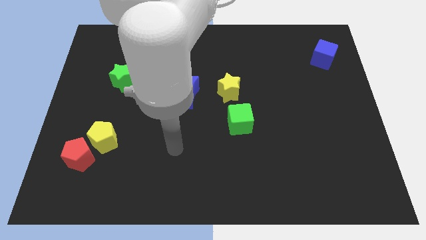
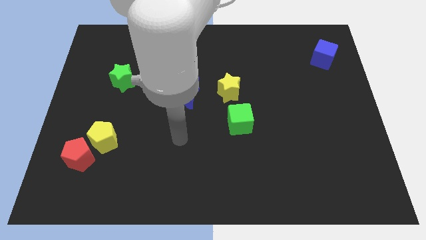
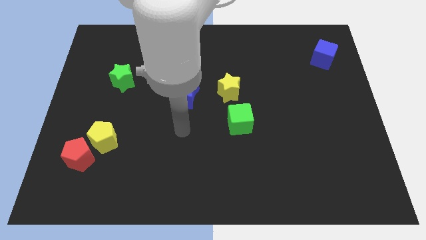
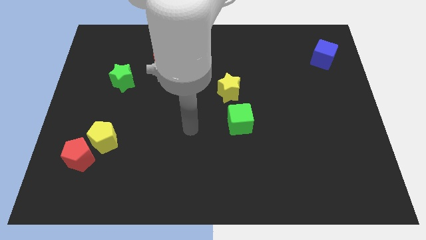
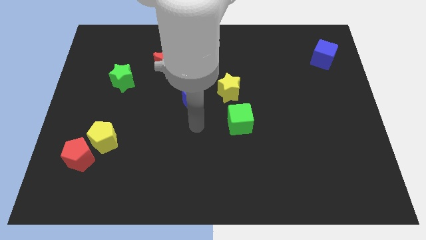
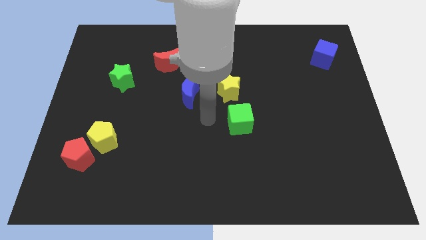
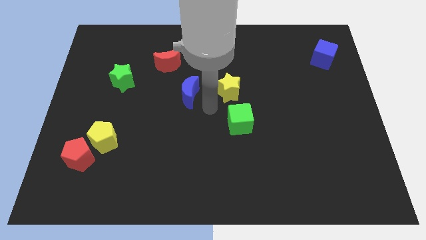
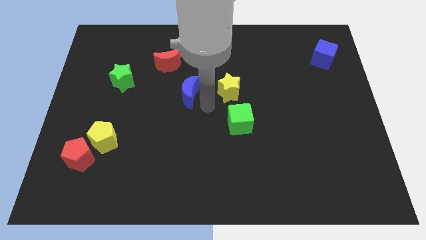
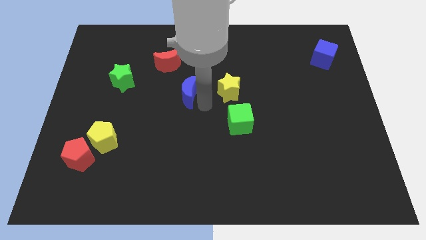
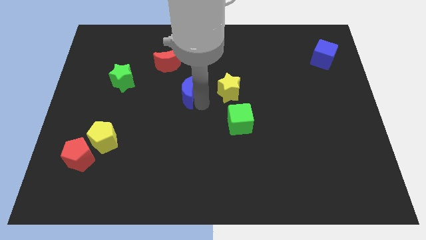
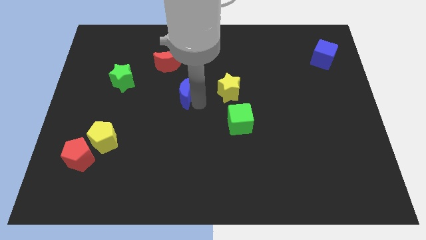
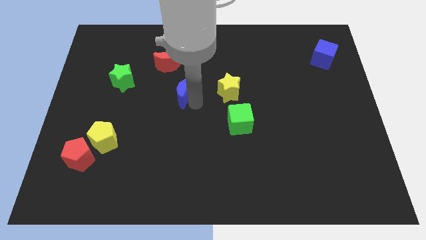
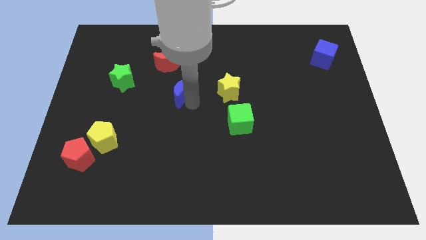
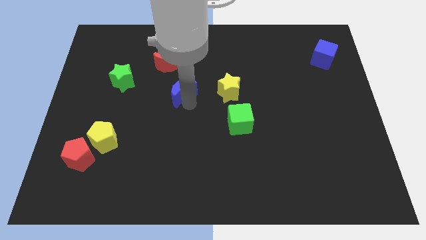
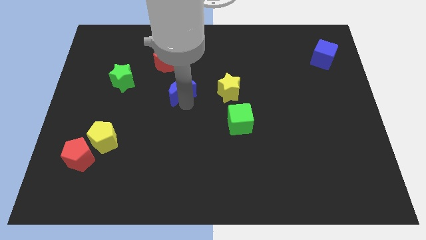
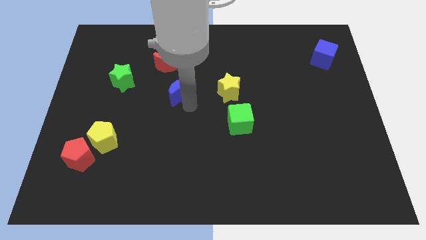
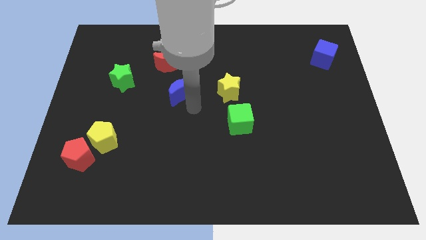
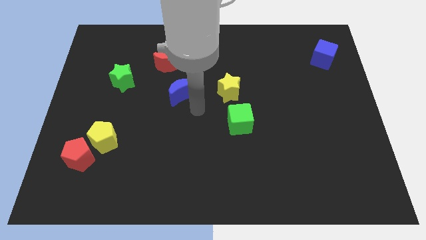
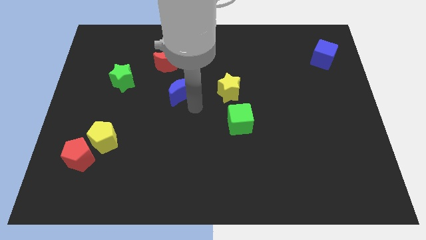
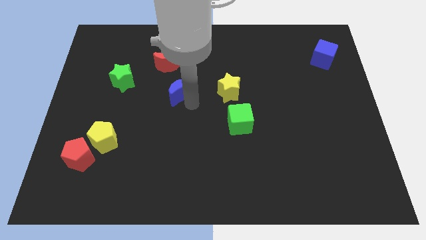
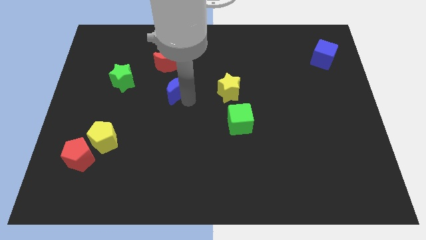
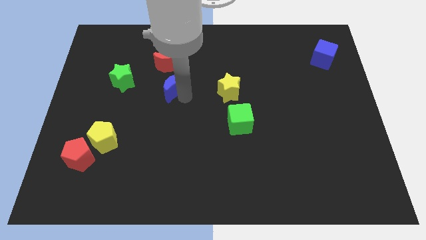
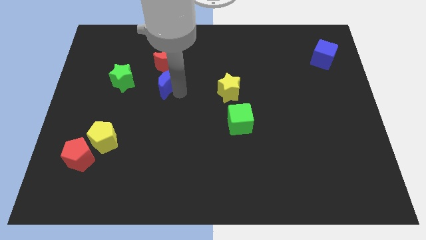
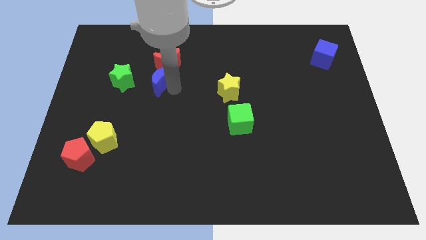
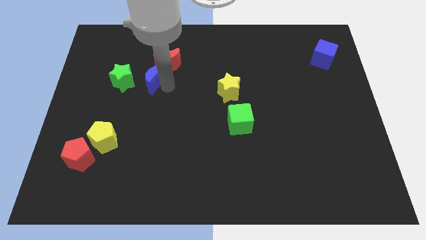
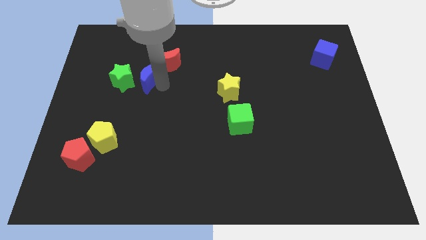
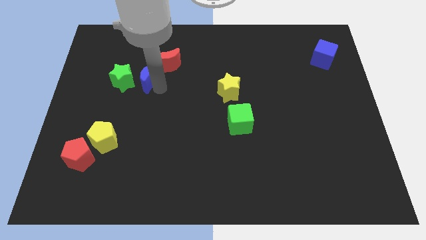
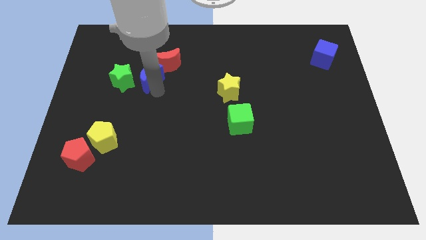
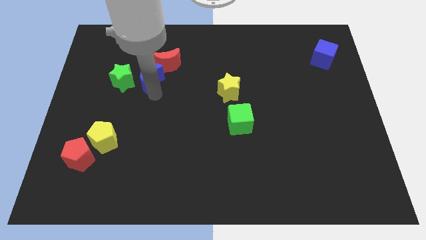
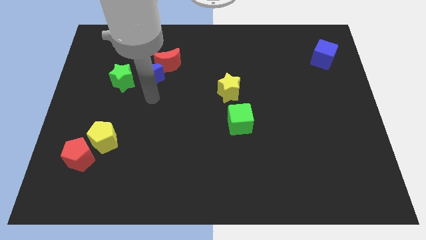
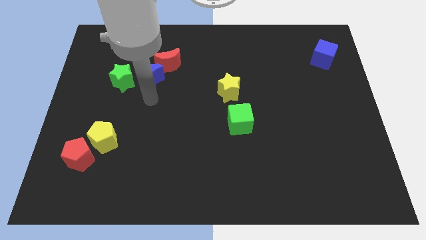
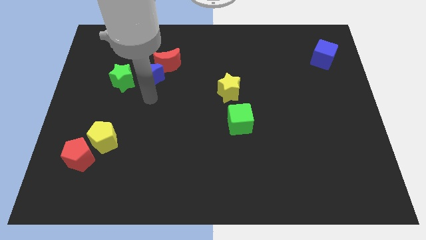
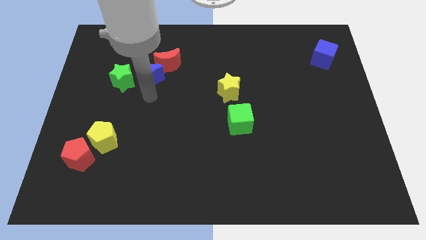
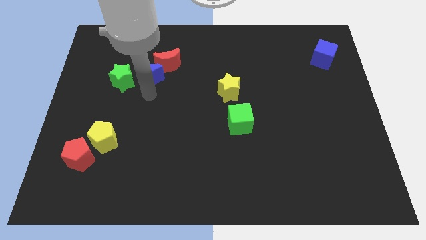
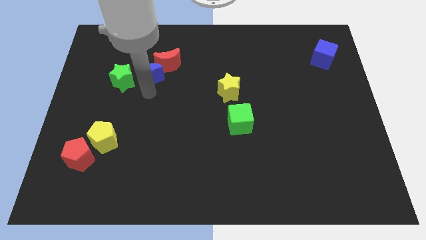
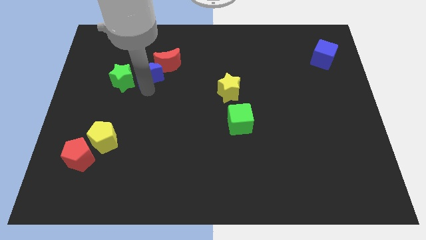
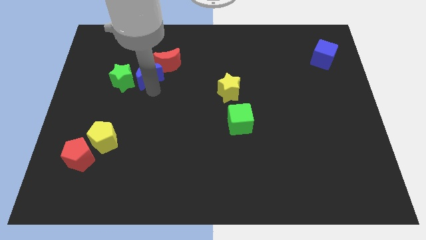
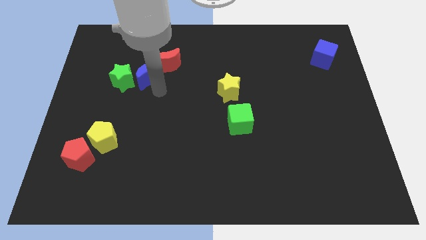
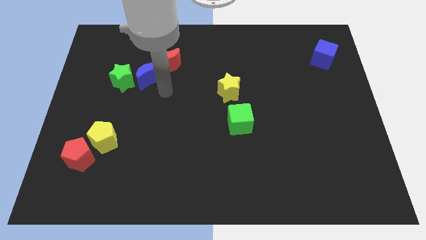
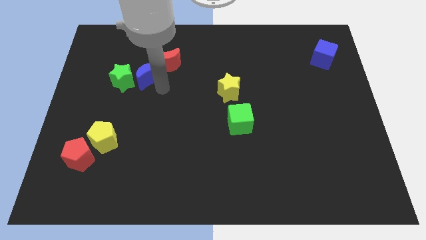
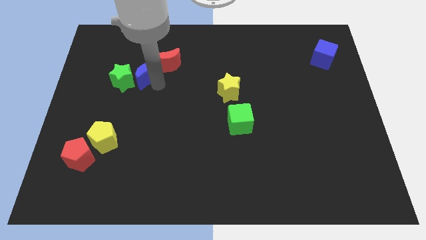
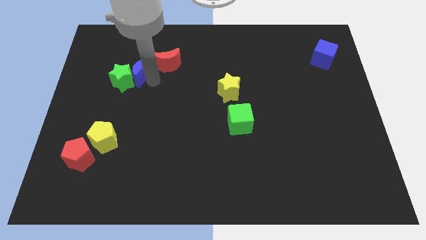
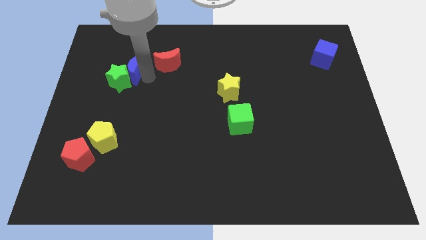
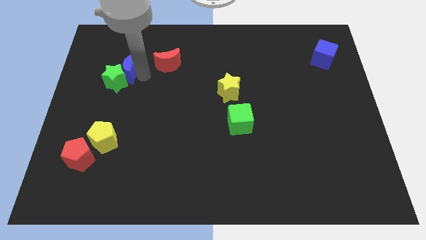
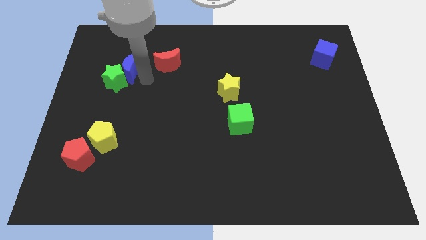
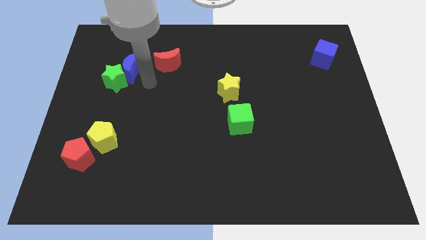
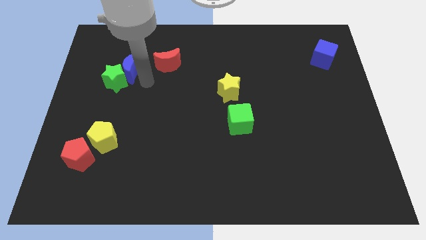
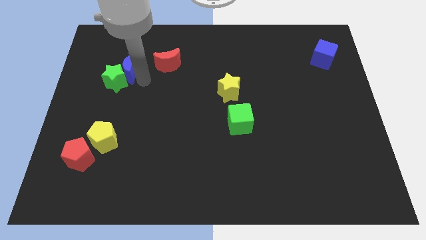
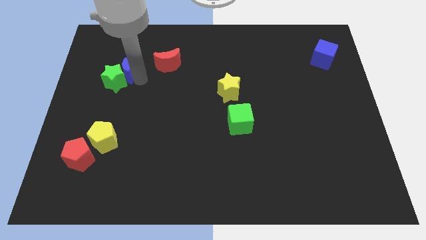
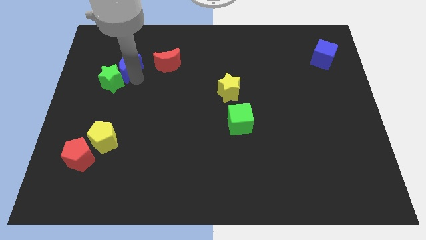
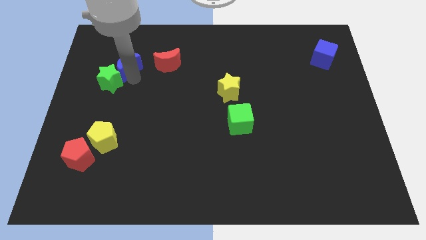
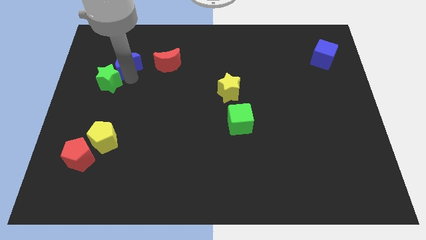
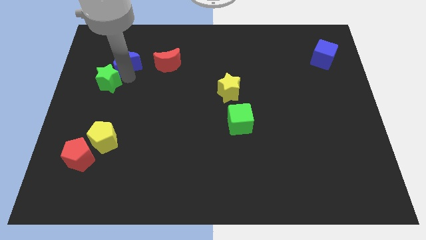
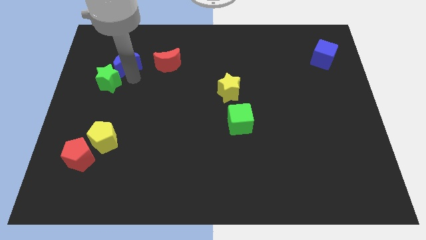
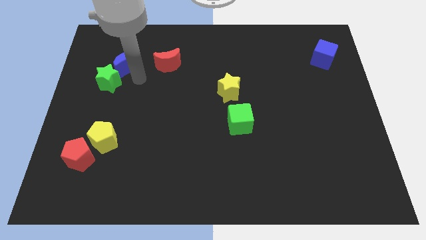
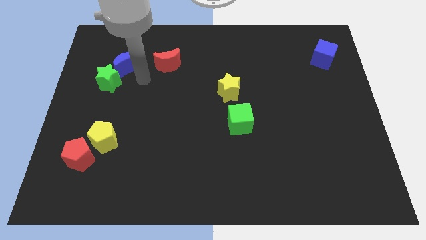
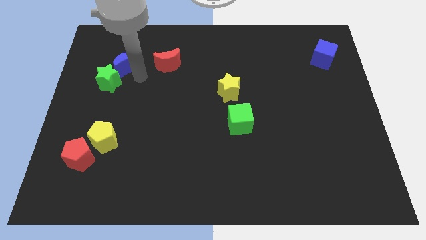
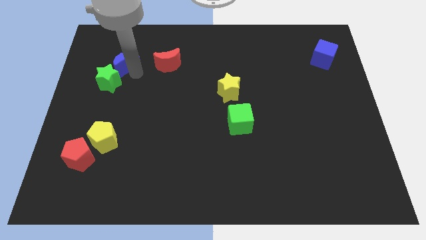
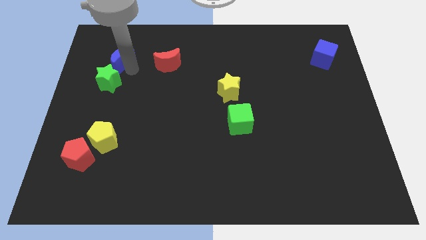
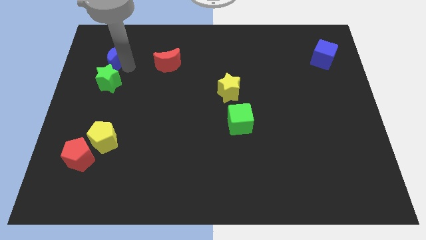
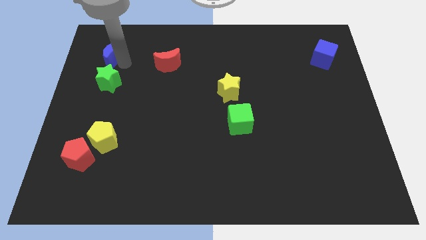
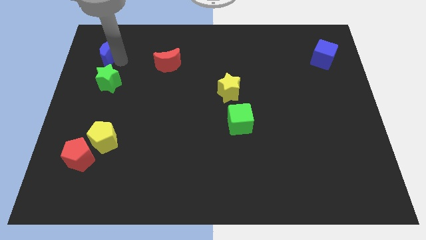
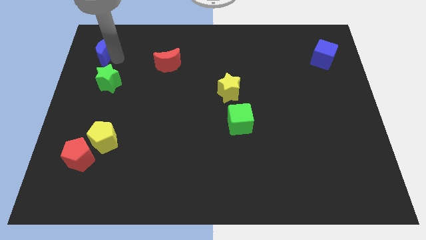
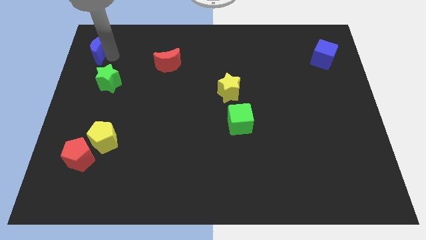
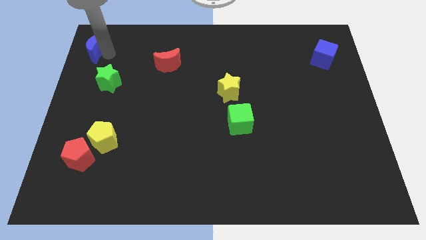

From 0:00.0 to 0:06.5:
put the blue moon to the top left

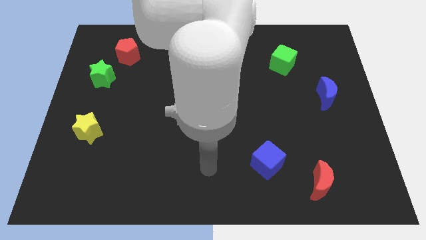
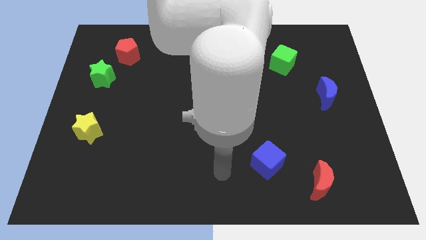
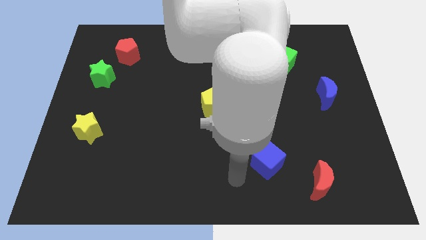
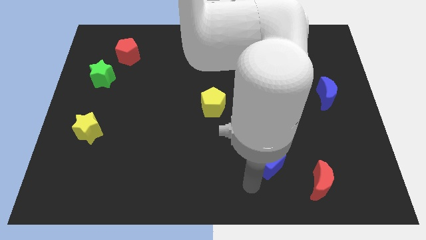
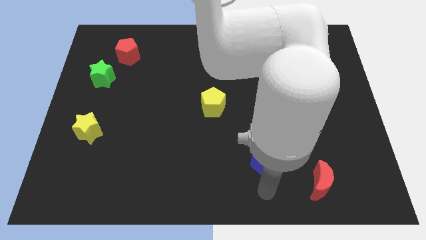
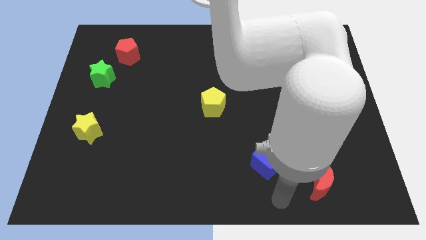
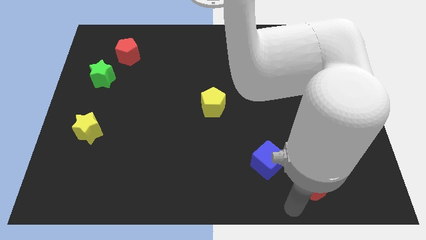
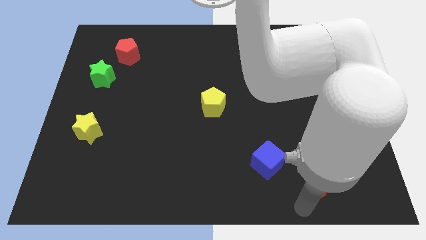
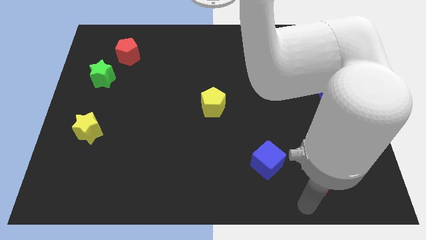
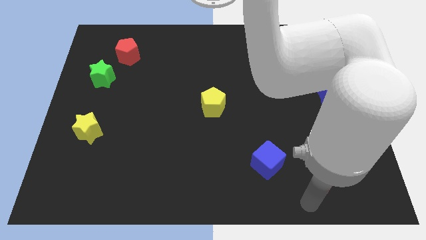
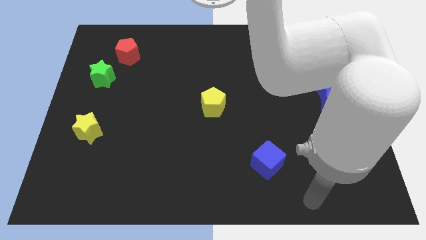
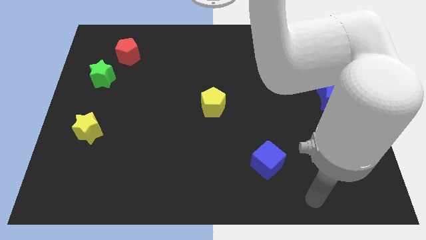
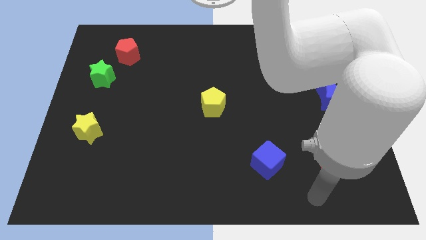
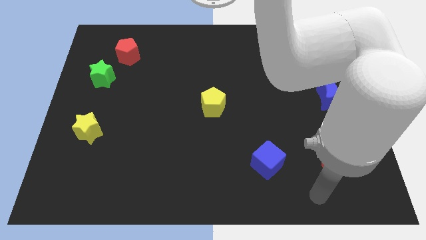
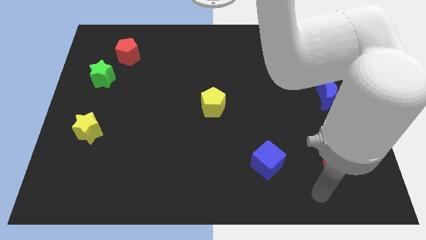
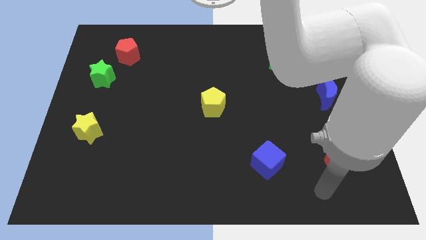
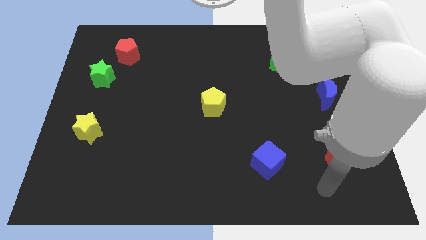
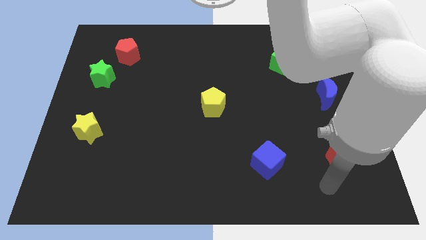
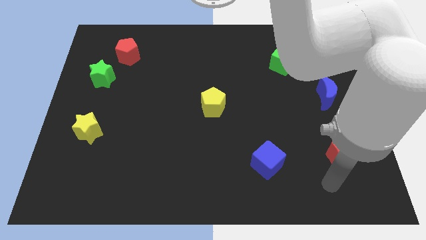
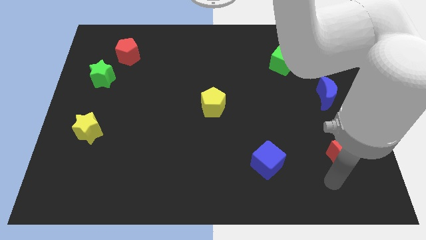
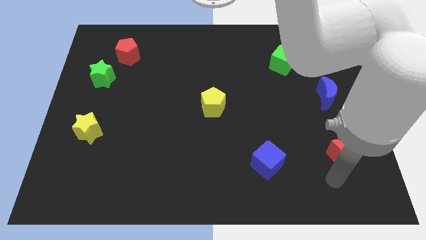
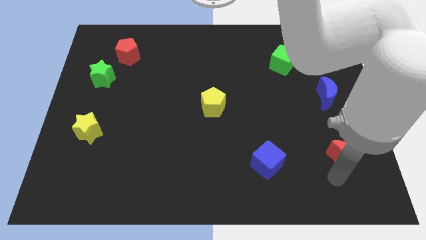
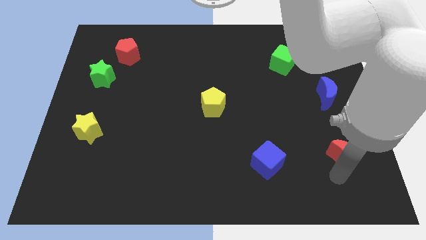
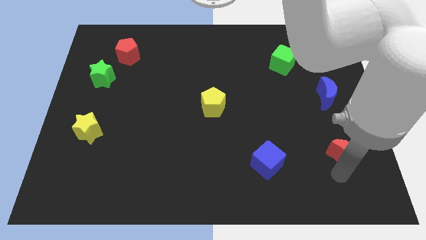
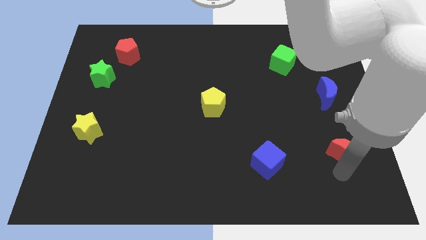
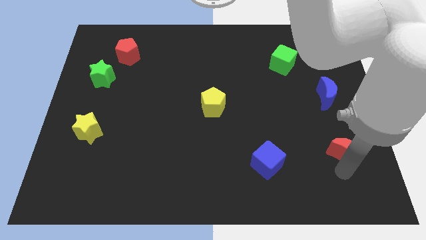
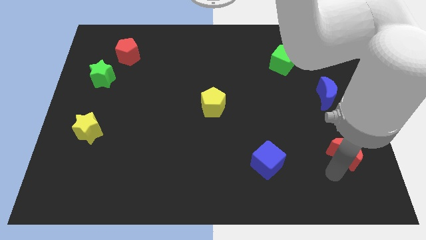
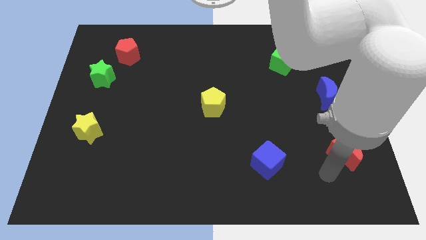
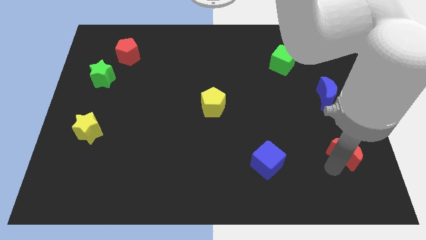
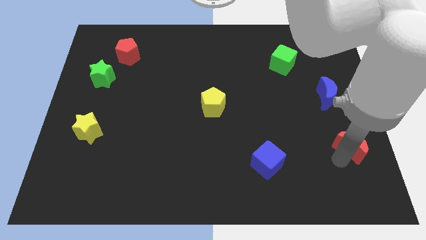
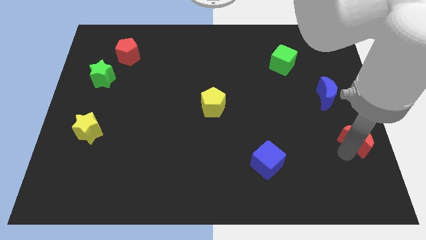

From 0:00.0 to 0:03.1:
put the red moon to the right side
